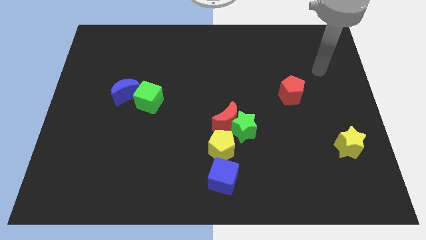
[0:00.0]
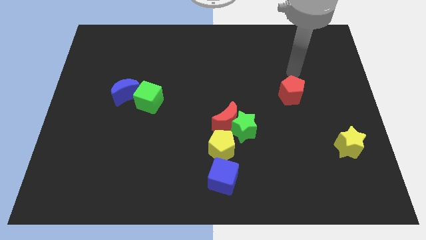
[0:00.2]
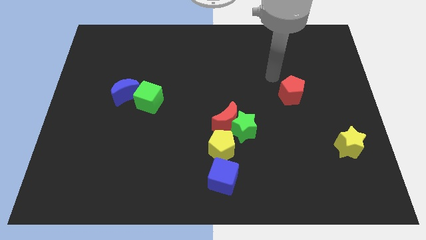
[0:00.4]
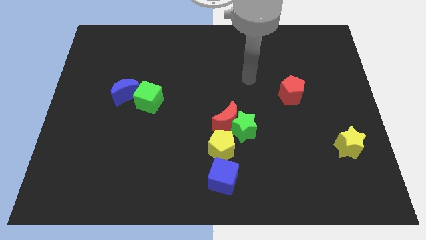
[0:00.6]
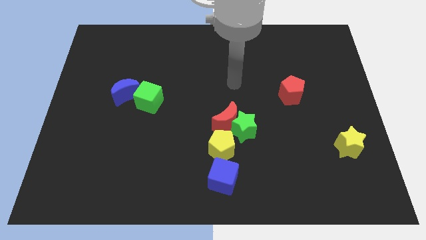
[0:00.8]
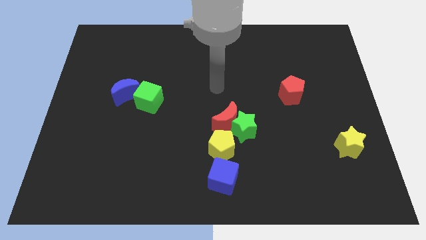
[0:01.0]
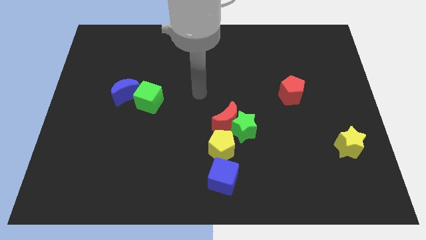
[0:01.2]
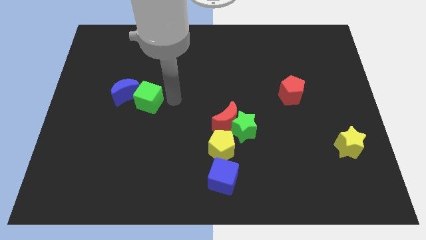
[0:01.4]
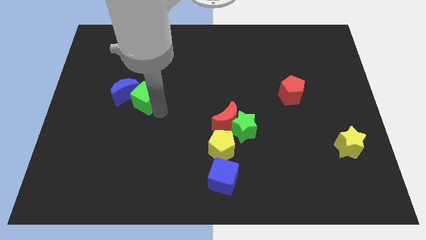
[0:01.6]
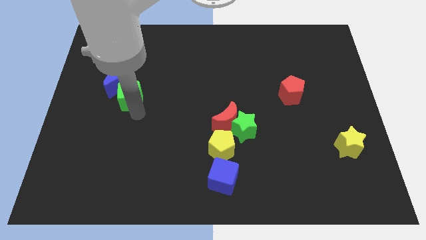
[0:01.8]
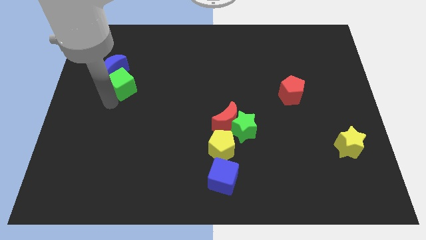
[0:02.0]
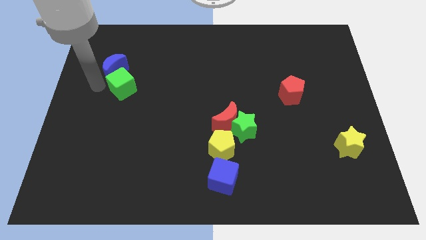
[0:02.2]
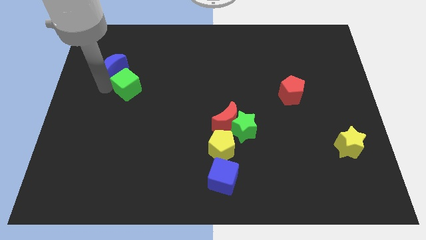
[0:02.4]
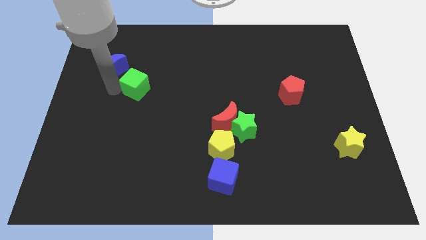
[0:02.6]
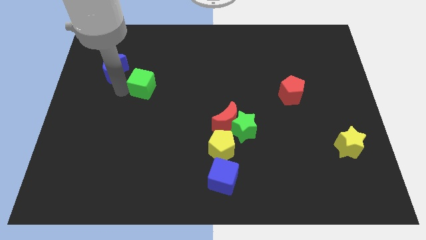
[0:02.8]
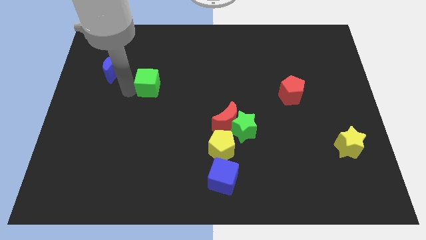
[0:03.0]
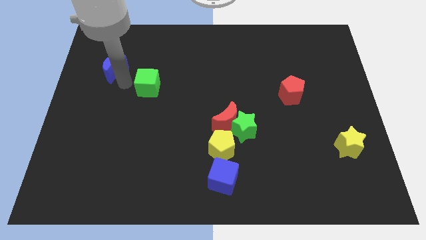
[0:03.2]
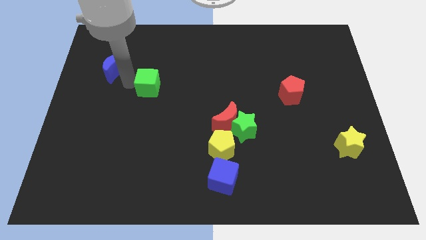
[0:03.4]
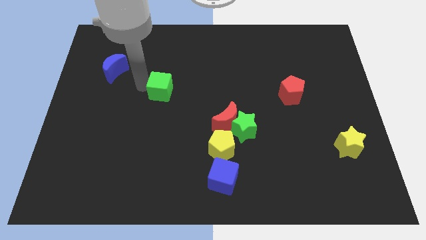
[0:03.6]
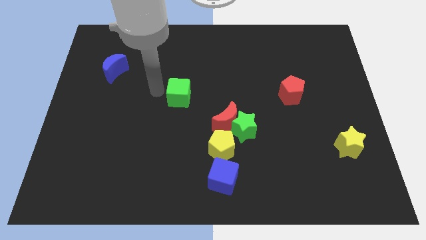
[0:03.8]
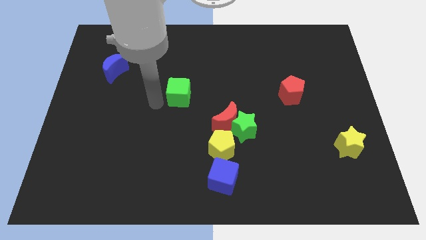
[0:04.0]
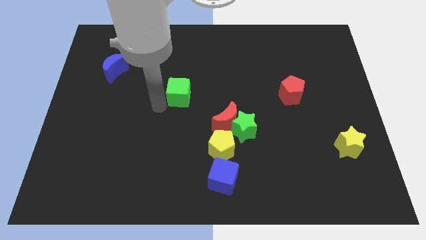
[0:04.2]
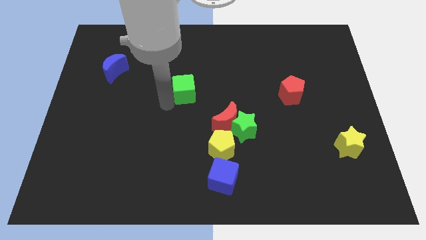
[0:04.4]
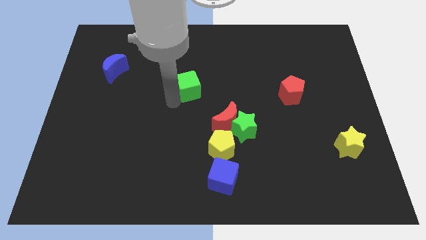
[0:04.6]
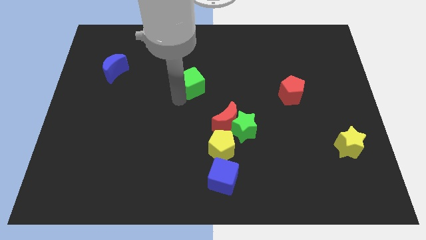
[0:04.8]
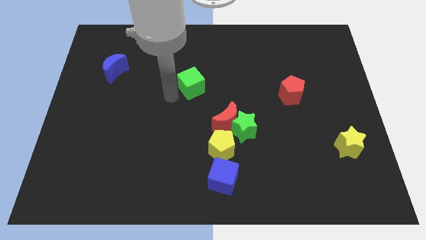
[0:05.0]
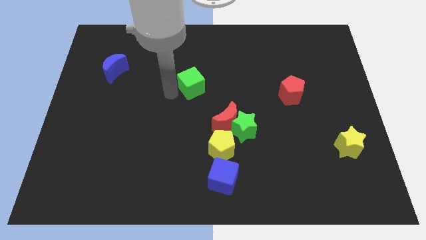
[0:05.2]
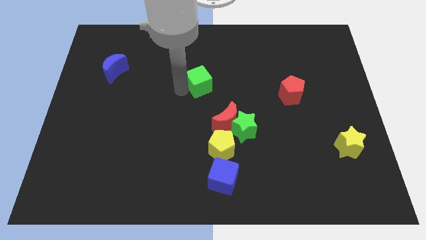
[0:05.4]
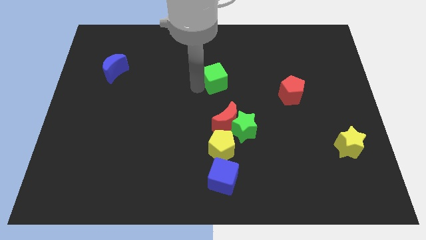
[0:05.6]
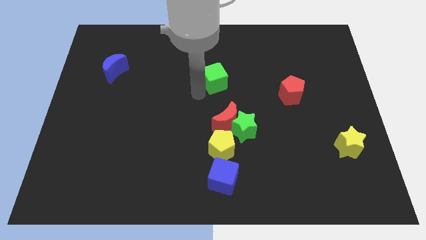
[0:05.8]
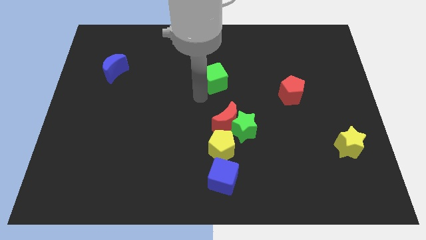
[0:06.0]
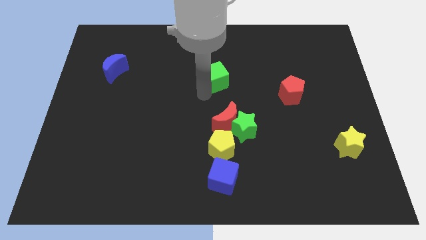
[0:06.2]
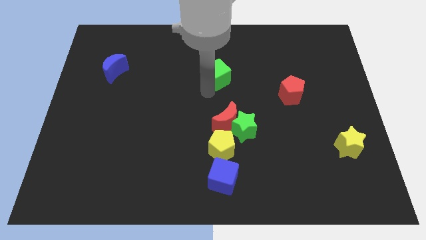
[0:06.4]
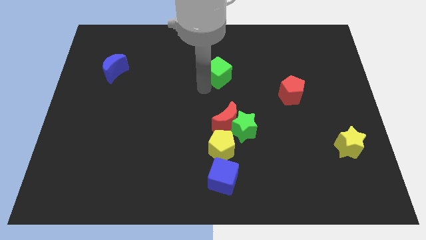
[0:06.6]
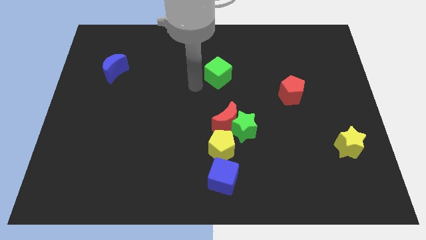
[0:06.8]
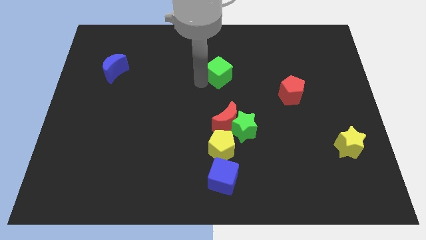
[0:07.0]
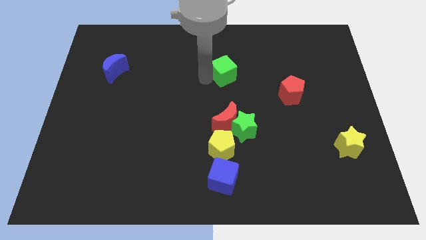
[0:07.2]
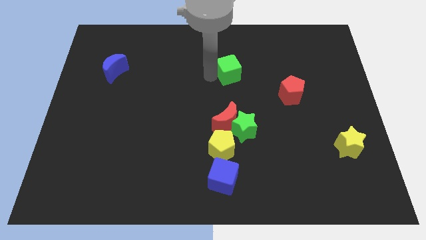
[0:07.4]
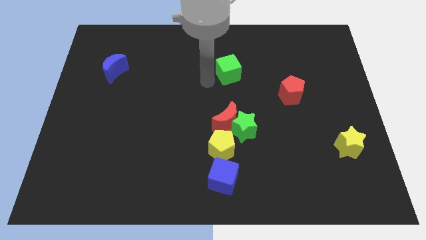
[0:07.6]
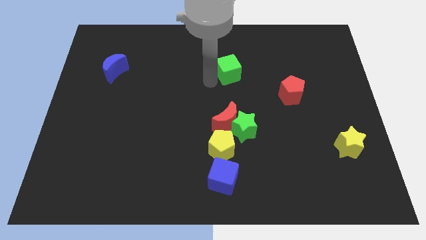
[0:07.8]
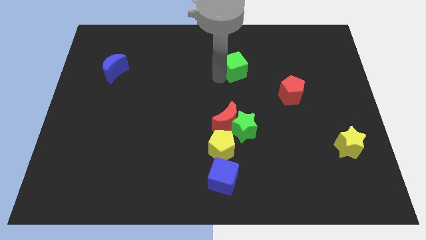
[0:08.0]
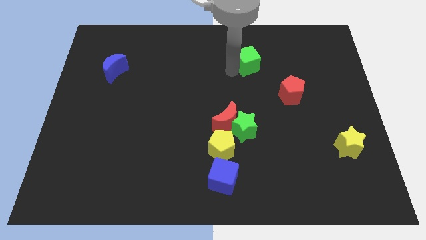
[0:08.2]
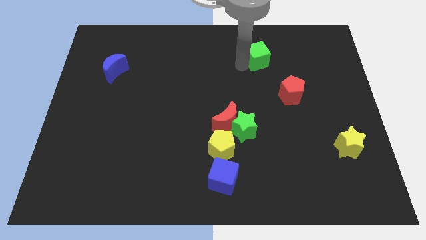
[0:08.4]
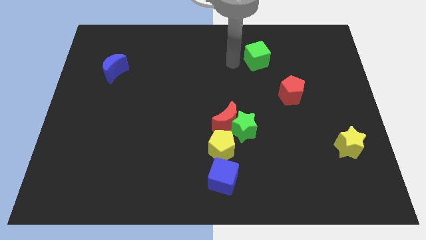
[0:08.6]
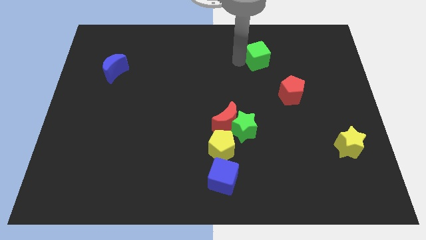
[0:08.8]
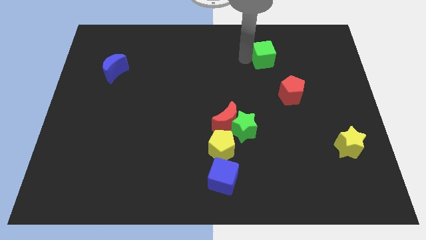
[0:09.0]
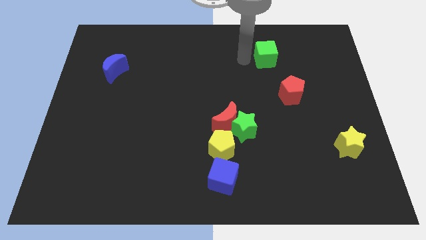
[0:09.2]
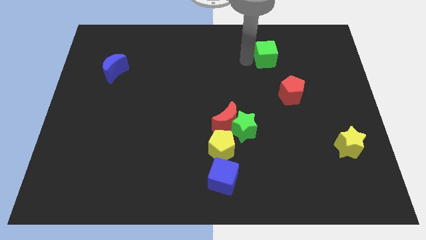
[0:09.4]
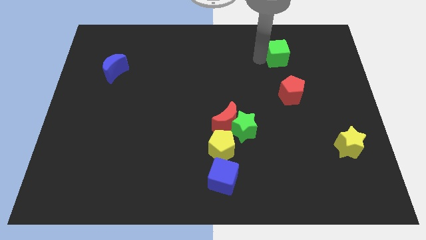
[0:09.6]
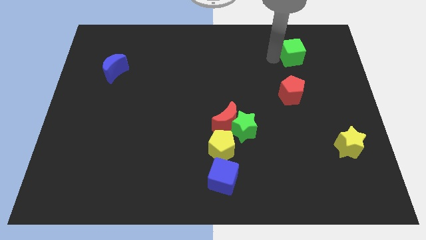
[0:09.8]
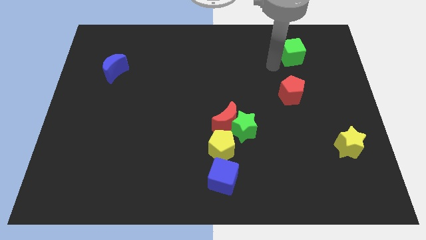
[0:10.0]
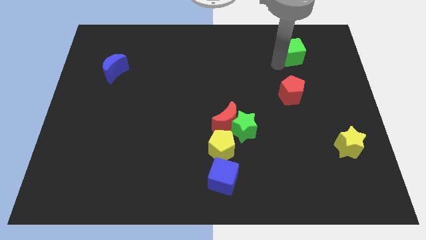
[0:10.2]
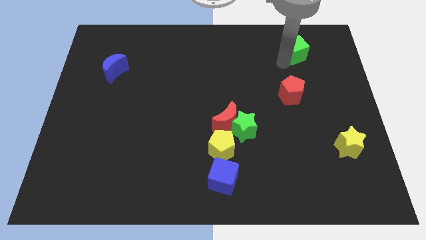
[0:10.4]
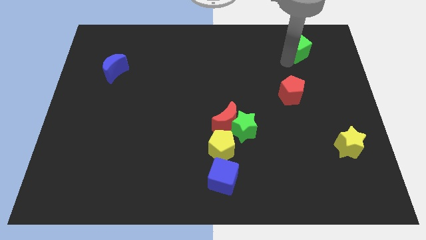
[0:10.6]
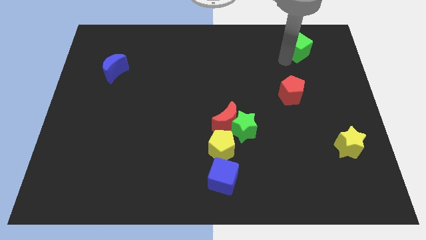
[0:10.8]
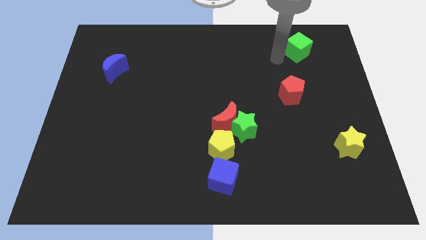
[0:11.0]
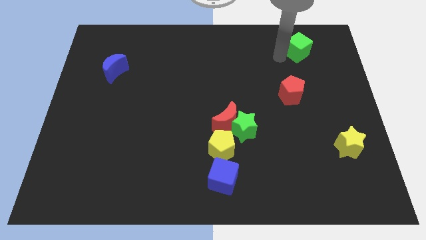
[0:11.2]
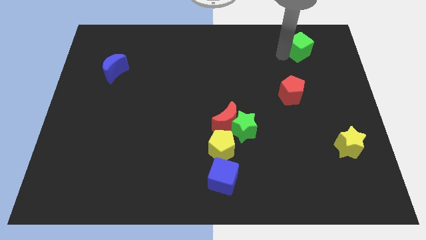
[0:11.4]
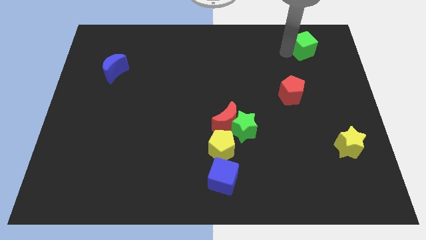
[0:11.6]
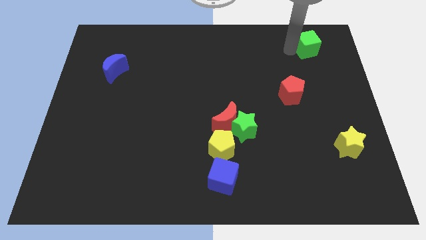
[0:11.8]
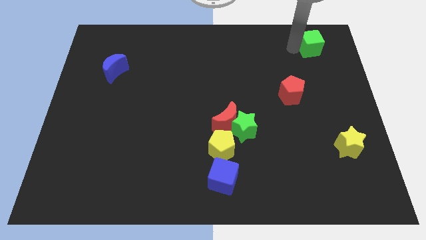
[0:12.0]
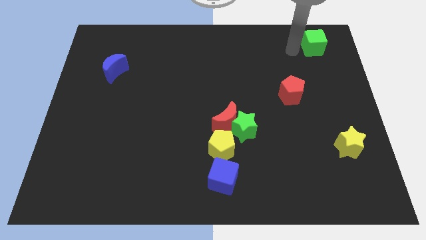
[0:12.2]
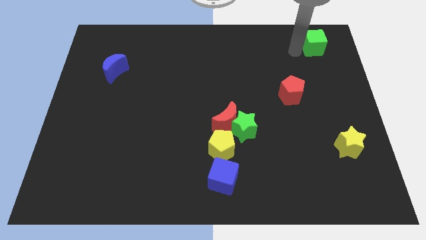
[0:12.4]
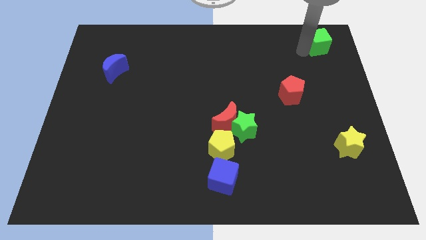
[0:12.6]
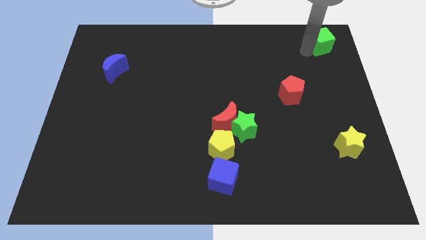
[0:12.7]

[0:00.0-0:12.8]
move the green cube to the top right of the board

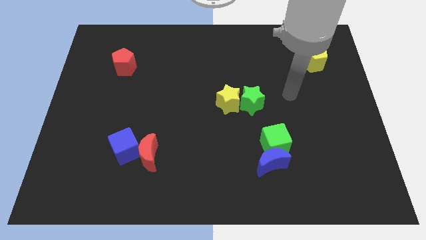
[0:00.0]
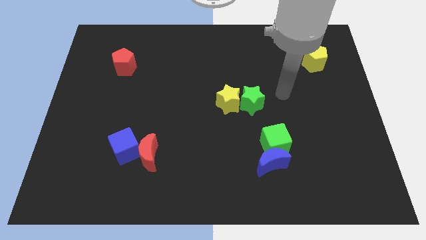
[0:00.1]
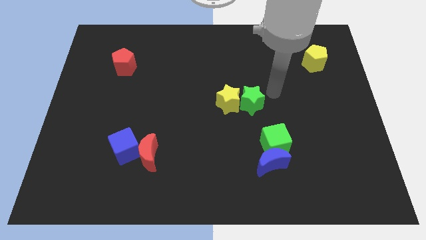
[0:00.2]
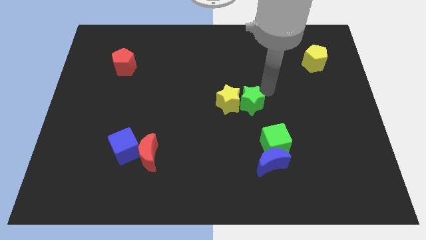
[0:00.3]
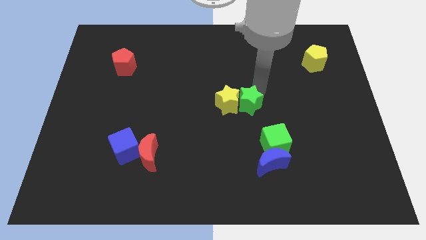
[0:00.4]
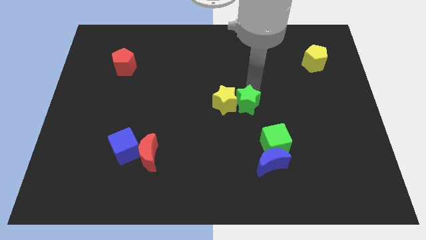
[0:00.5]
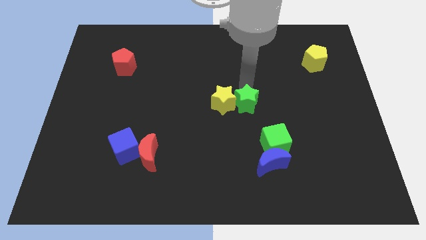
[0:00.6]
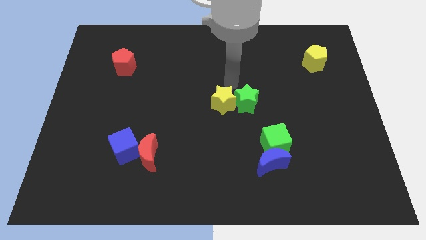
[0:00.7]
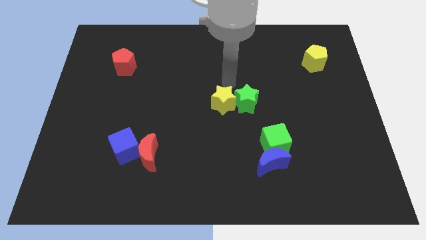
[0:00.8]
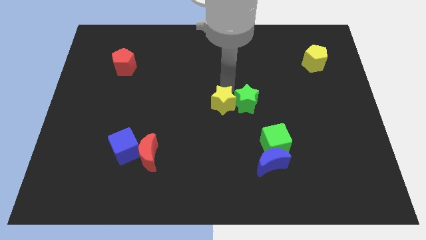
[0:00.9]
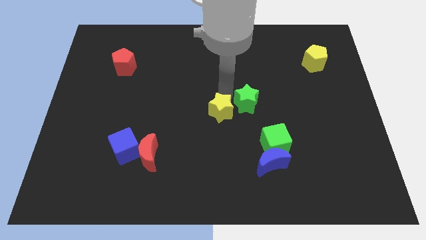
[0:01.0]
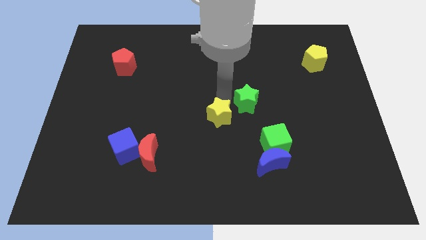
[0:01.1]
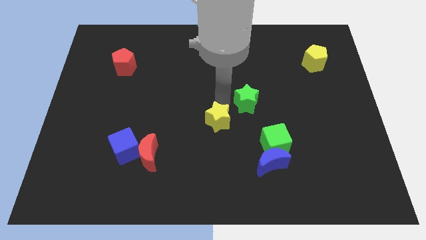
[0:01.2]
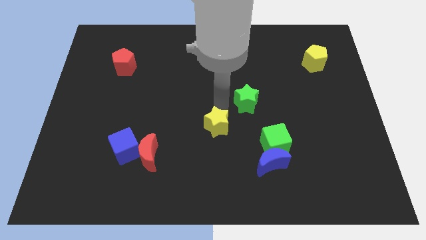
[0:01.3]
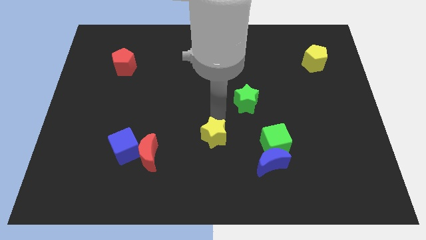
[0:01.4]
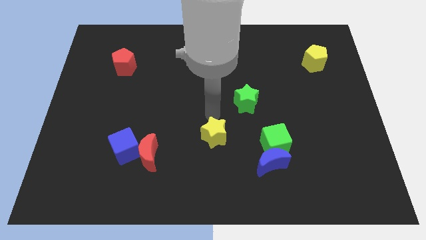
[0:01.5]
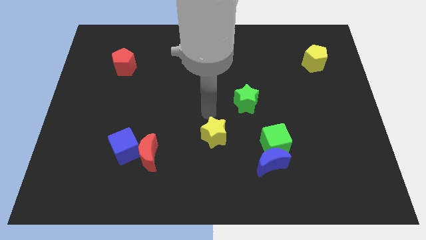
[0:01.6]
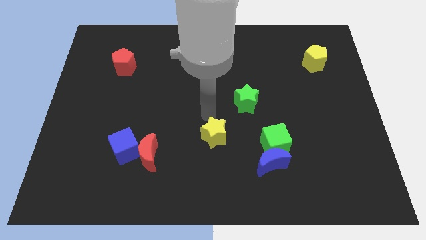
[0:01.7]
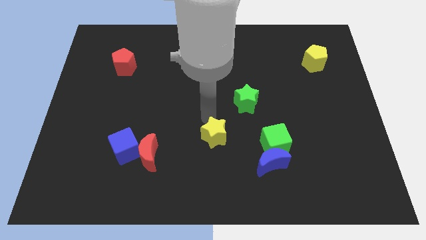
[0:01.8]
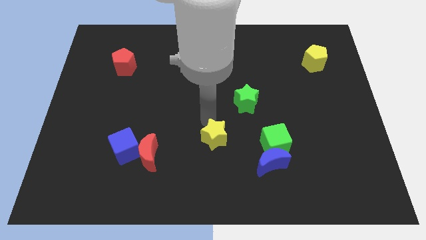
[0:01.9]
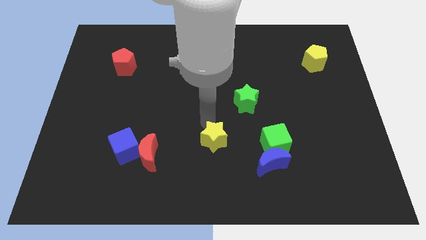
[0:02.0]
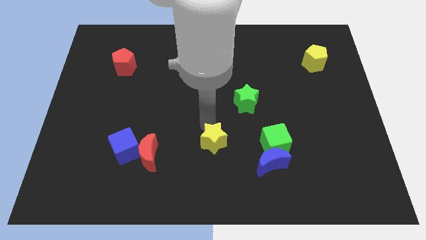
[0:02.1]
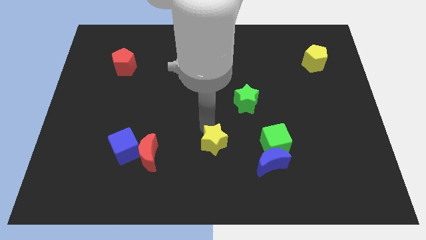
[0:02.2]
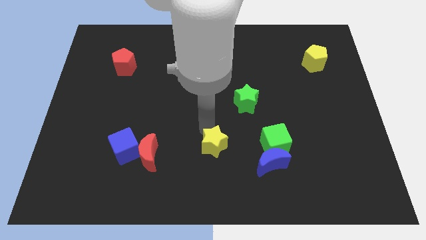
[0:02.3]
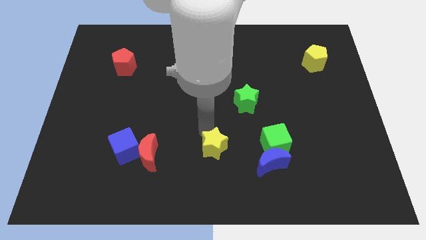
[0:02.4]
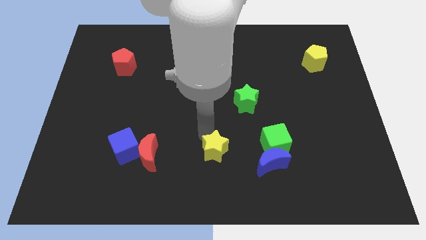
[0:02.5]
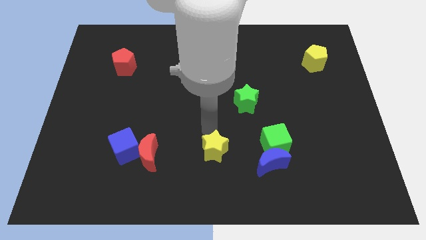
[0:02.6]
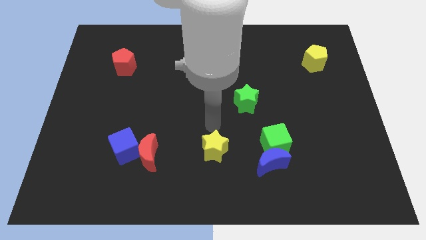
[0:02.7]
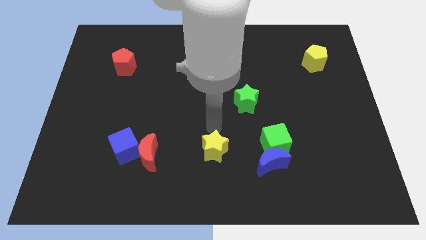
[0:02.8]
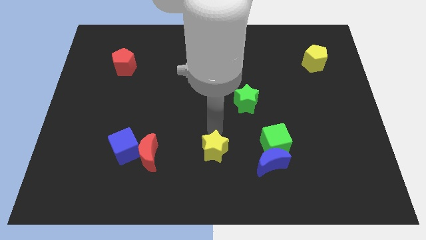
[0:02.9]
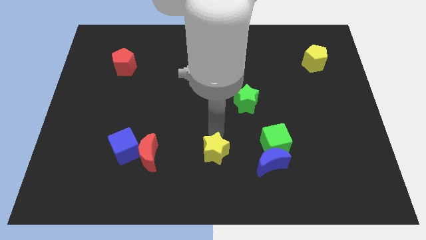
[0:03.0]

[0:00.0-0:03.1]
slide the yellow star to the bottom side
